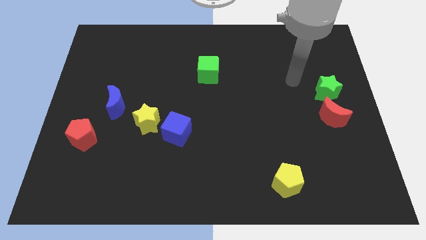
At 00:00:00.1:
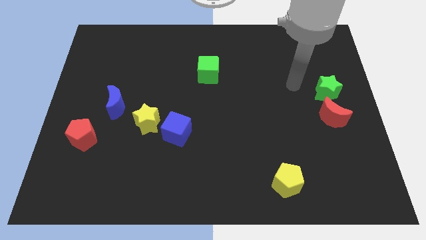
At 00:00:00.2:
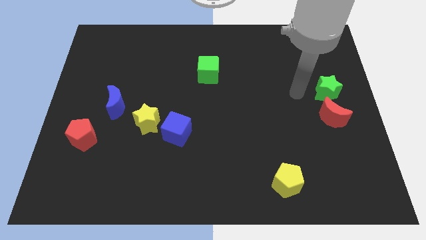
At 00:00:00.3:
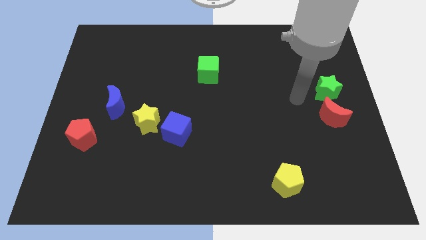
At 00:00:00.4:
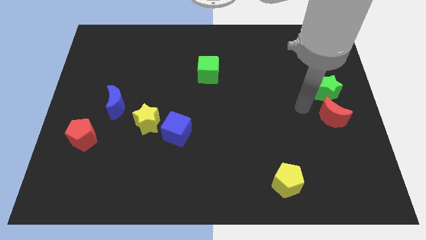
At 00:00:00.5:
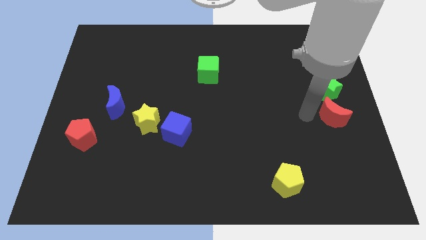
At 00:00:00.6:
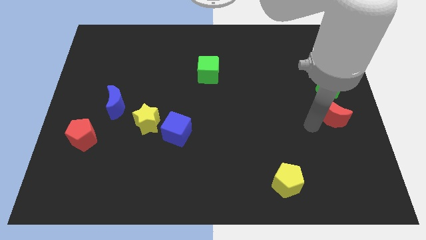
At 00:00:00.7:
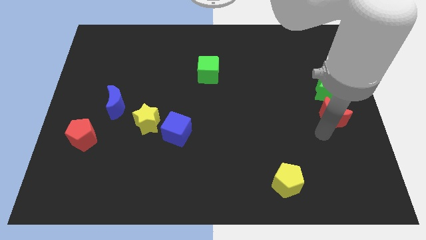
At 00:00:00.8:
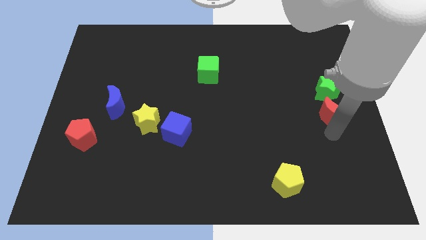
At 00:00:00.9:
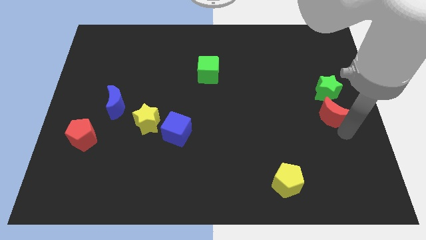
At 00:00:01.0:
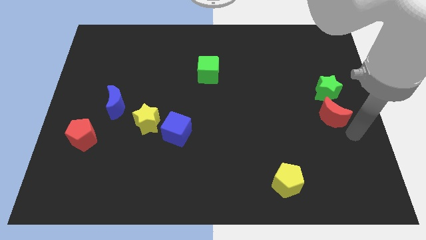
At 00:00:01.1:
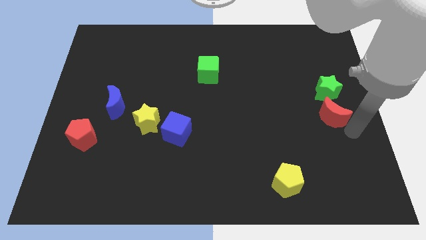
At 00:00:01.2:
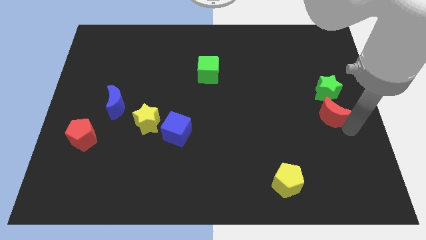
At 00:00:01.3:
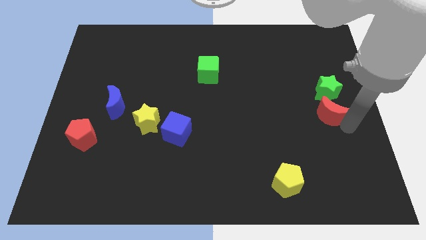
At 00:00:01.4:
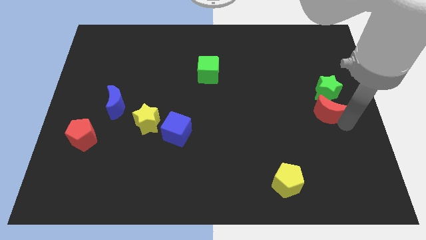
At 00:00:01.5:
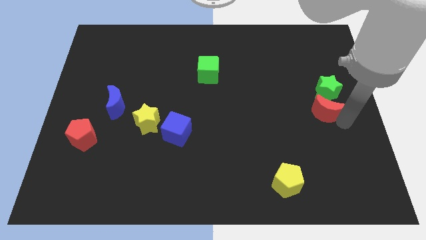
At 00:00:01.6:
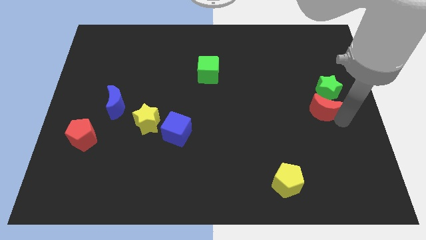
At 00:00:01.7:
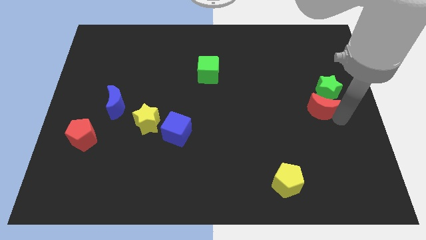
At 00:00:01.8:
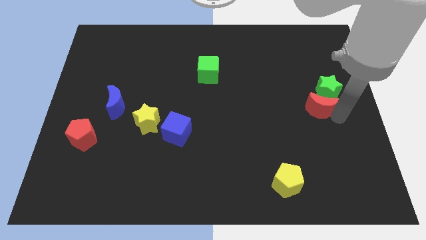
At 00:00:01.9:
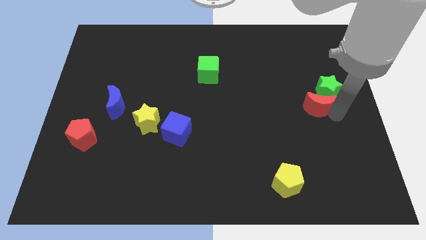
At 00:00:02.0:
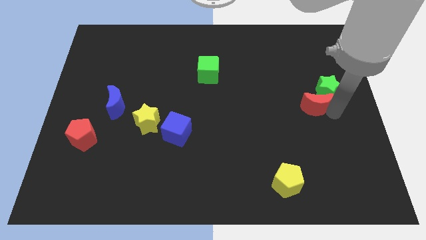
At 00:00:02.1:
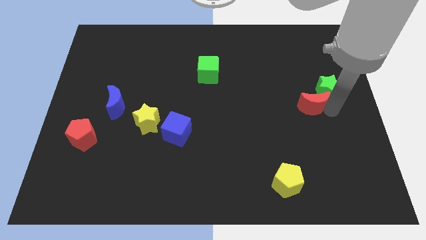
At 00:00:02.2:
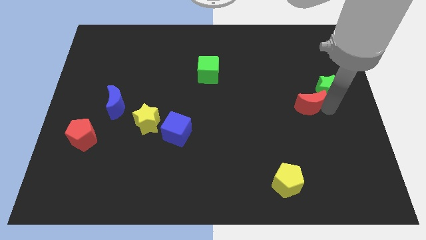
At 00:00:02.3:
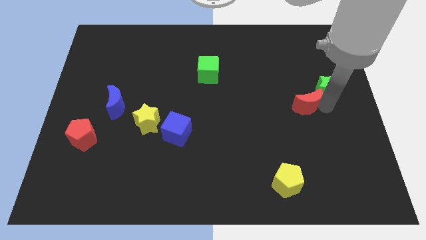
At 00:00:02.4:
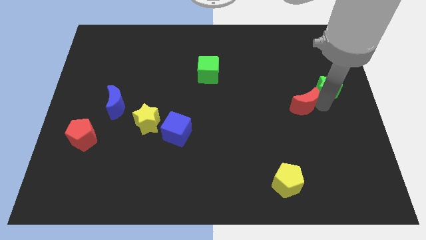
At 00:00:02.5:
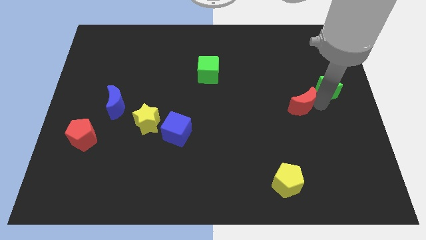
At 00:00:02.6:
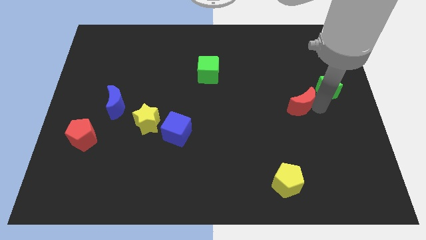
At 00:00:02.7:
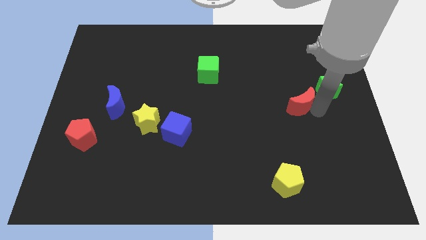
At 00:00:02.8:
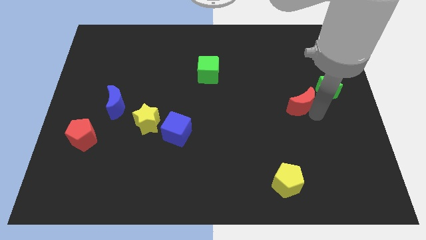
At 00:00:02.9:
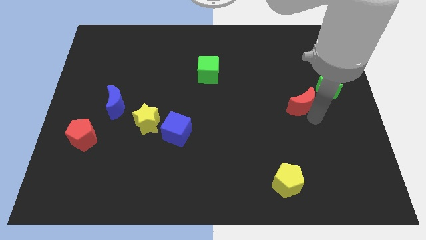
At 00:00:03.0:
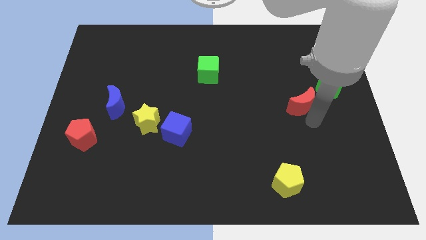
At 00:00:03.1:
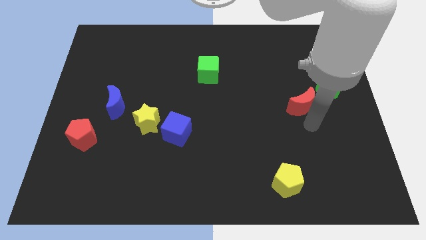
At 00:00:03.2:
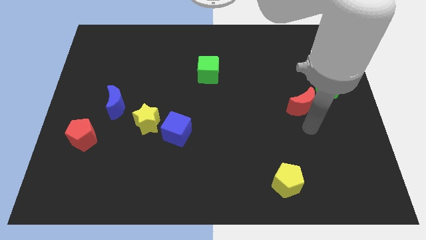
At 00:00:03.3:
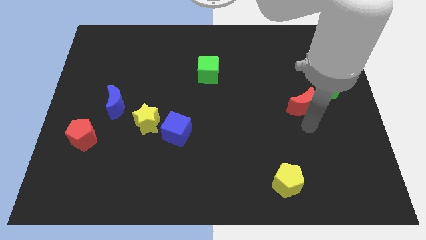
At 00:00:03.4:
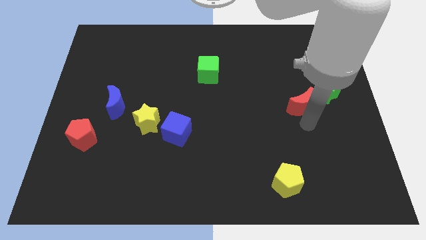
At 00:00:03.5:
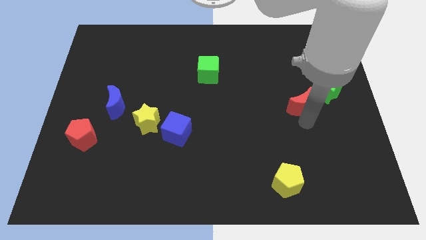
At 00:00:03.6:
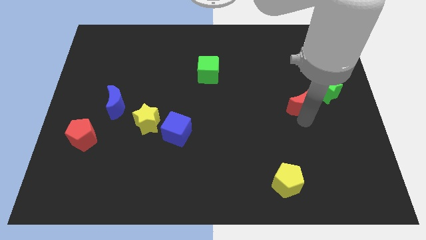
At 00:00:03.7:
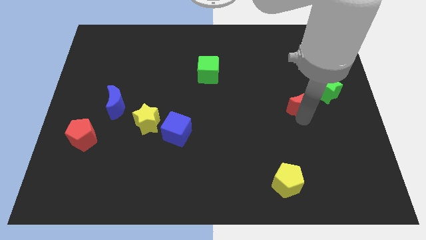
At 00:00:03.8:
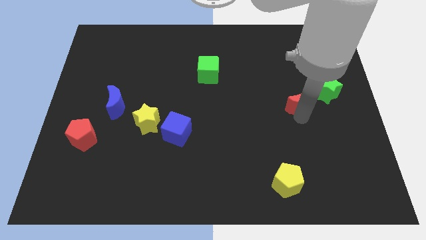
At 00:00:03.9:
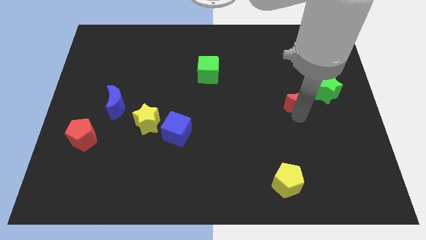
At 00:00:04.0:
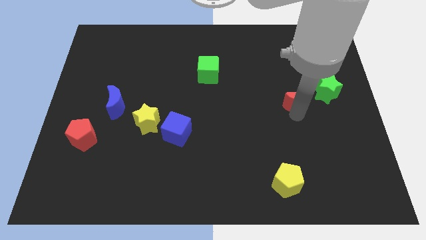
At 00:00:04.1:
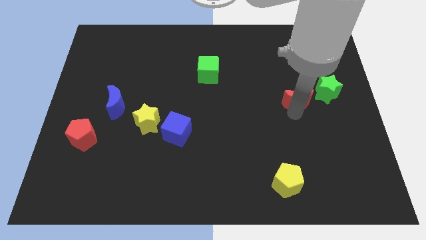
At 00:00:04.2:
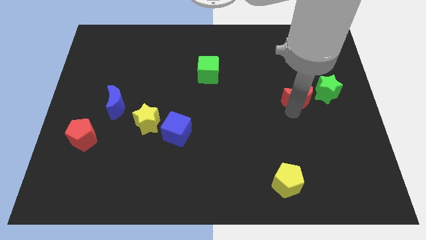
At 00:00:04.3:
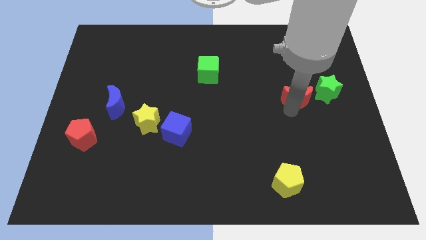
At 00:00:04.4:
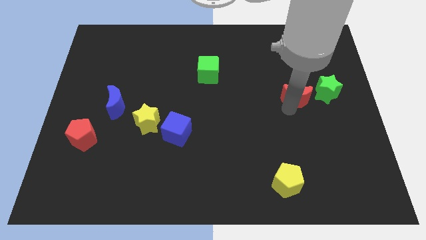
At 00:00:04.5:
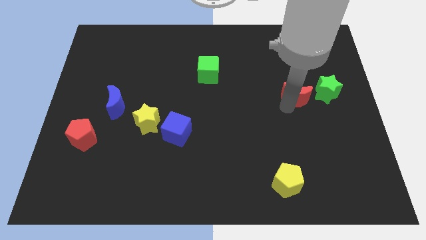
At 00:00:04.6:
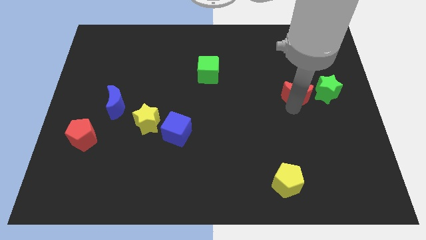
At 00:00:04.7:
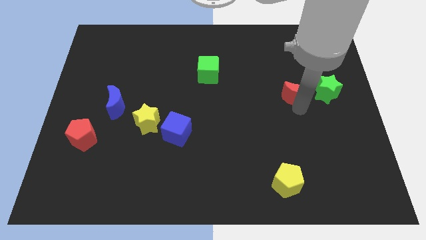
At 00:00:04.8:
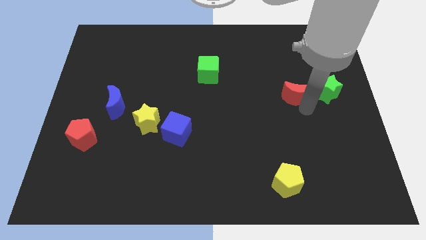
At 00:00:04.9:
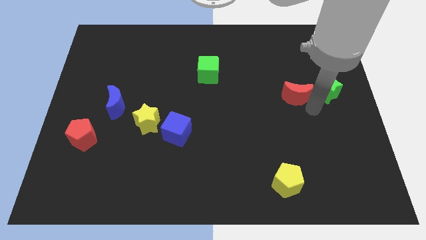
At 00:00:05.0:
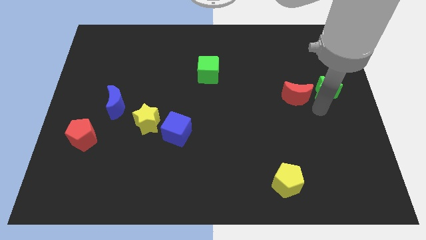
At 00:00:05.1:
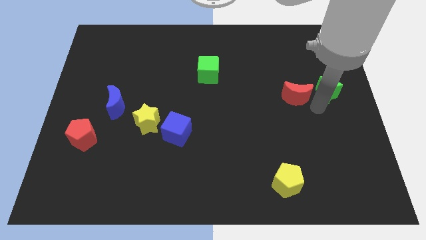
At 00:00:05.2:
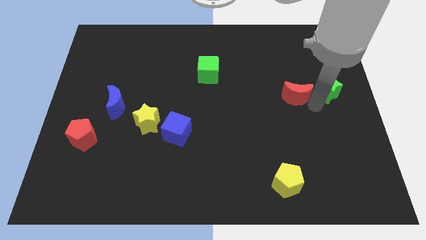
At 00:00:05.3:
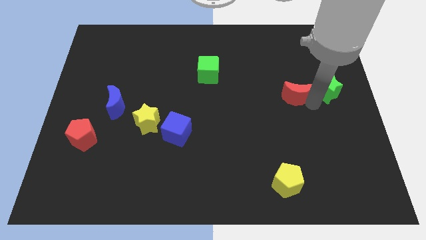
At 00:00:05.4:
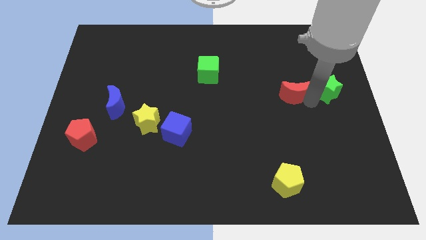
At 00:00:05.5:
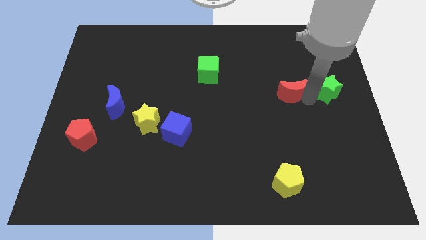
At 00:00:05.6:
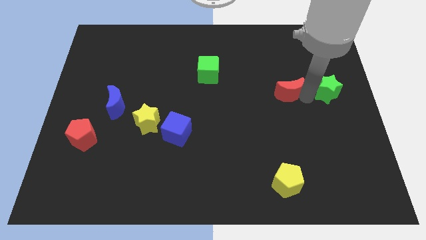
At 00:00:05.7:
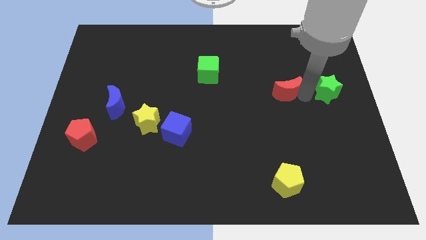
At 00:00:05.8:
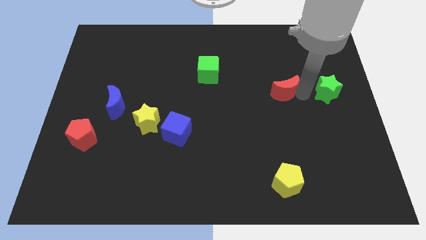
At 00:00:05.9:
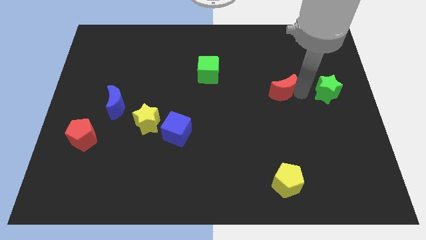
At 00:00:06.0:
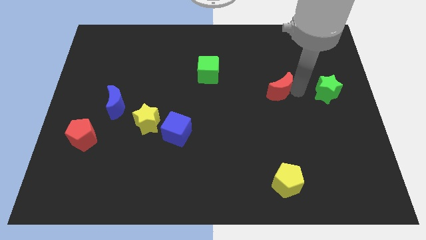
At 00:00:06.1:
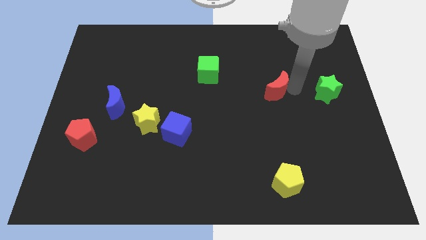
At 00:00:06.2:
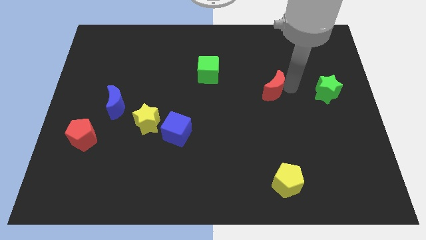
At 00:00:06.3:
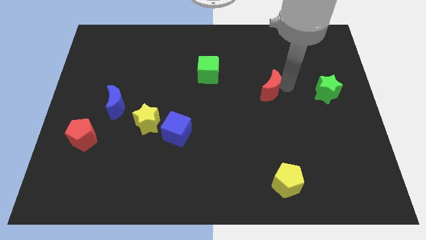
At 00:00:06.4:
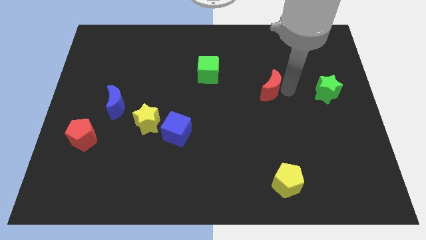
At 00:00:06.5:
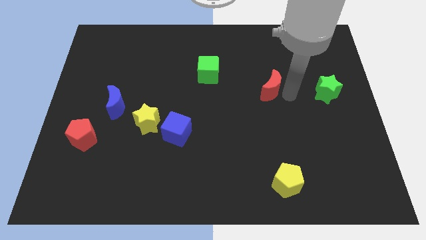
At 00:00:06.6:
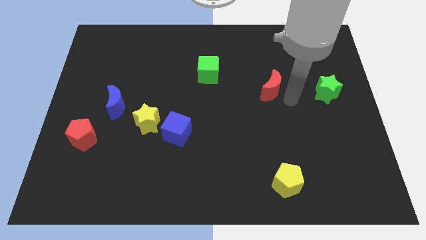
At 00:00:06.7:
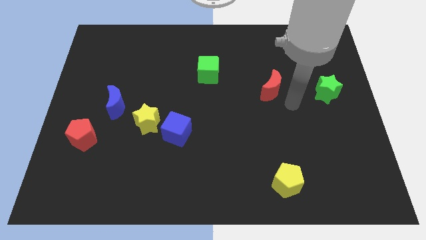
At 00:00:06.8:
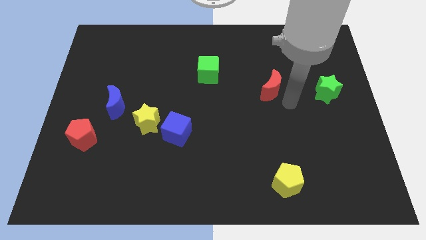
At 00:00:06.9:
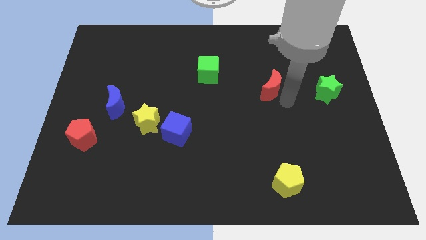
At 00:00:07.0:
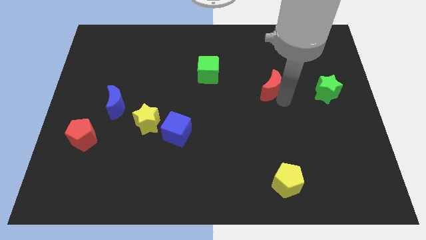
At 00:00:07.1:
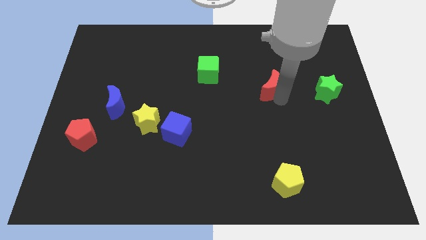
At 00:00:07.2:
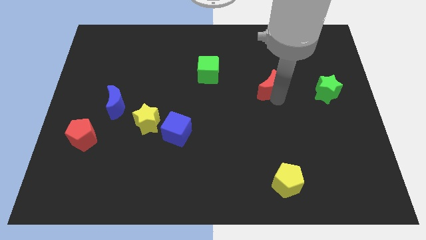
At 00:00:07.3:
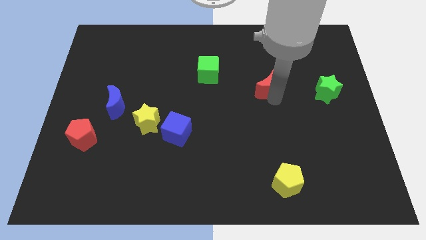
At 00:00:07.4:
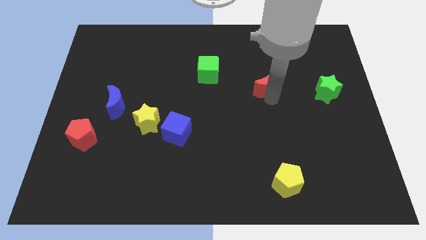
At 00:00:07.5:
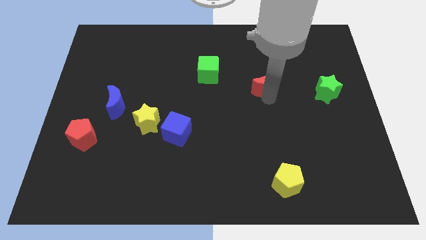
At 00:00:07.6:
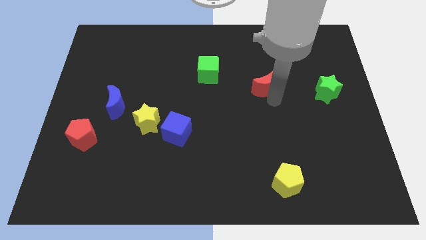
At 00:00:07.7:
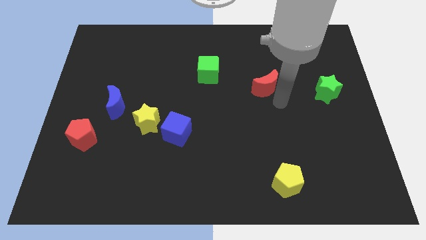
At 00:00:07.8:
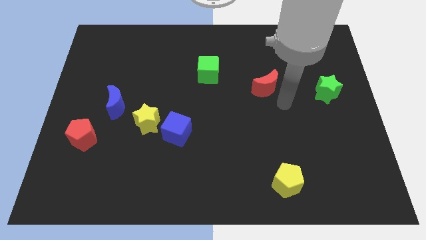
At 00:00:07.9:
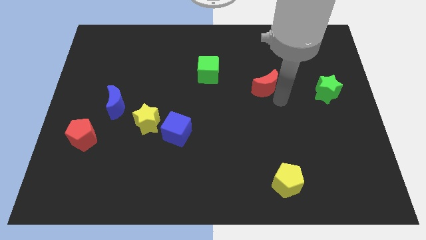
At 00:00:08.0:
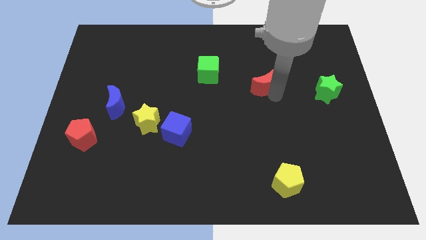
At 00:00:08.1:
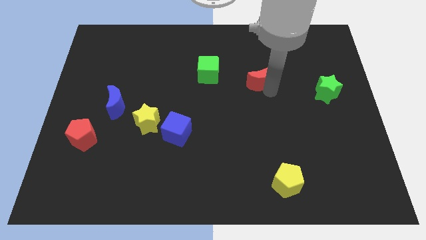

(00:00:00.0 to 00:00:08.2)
push the red moon to the right side of the green cube
